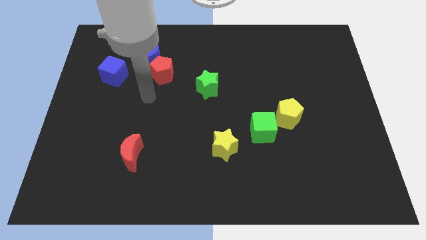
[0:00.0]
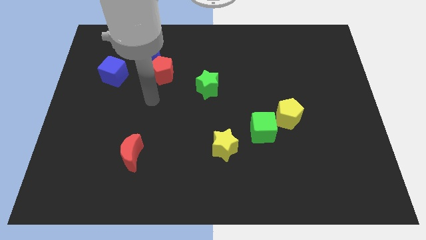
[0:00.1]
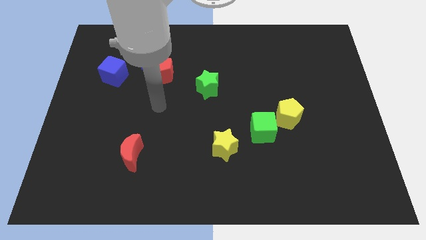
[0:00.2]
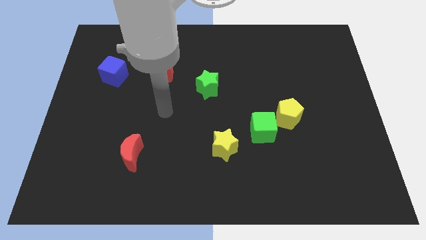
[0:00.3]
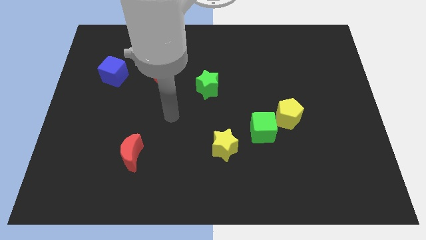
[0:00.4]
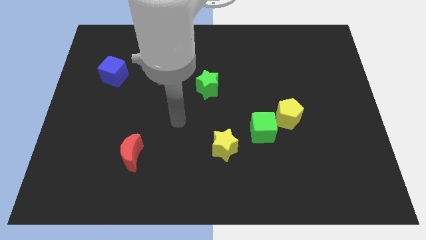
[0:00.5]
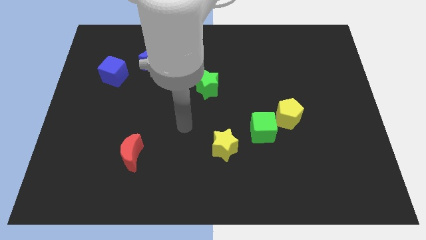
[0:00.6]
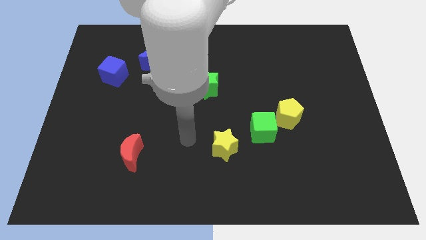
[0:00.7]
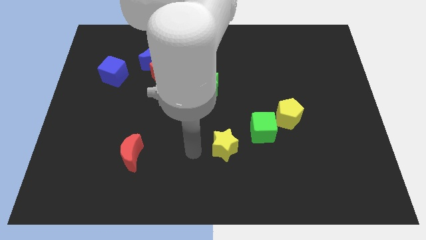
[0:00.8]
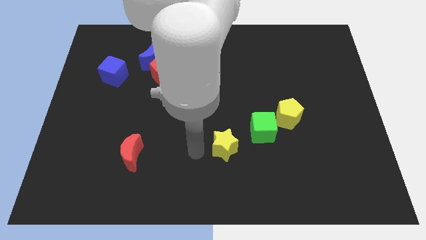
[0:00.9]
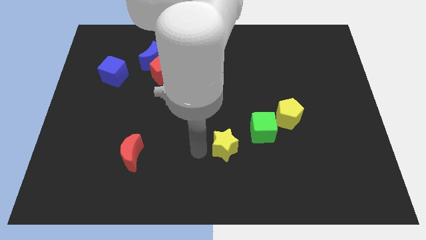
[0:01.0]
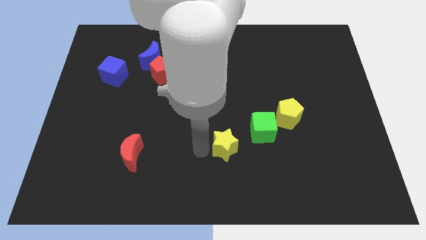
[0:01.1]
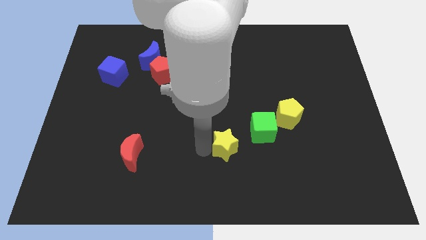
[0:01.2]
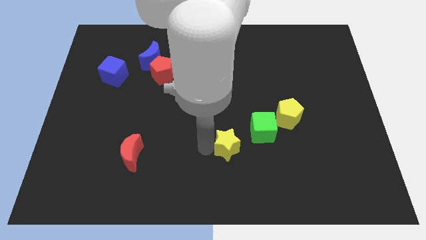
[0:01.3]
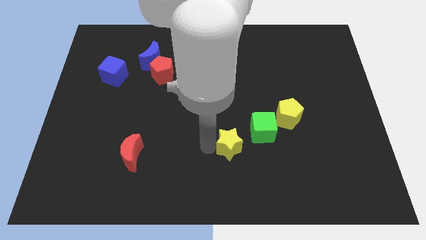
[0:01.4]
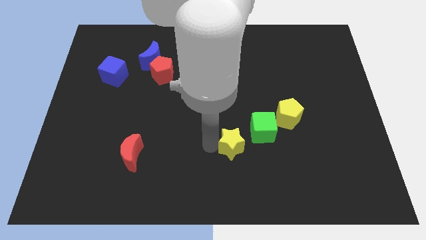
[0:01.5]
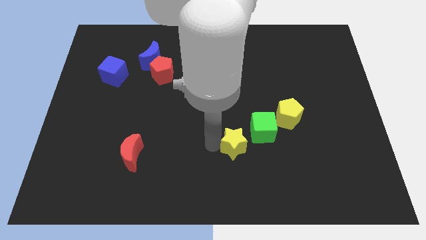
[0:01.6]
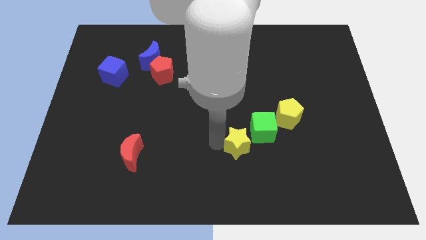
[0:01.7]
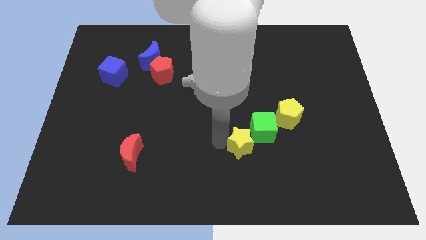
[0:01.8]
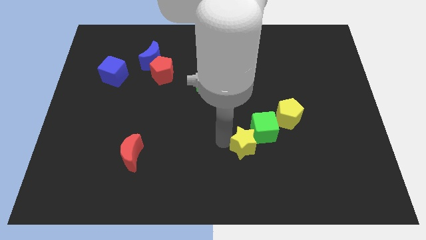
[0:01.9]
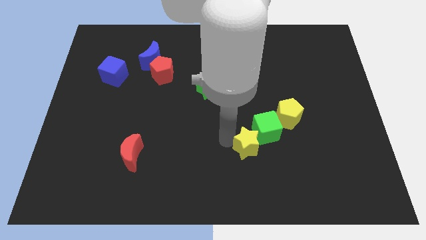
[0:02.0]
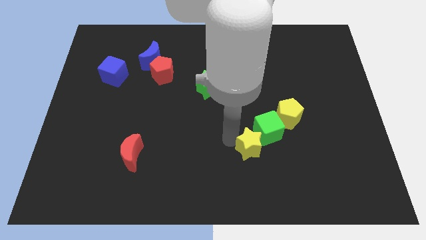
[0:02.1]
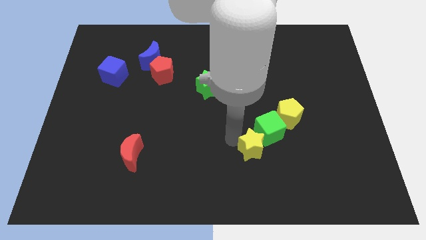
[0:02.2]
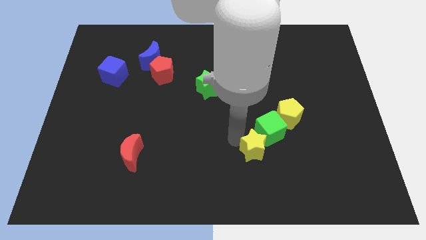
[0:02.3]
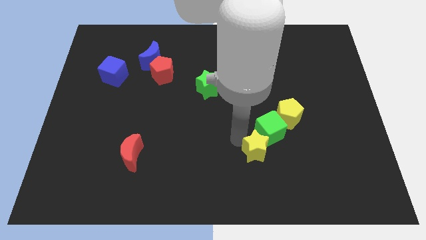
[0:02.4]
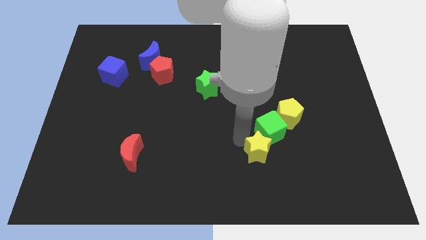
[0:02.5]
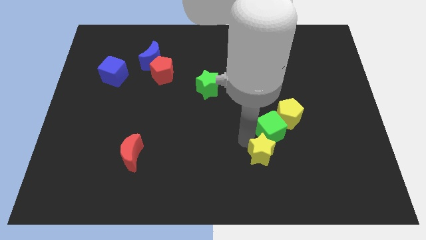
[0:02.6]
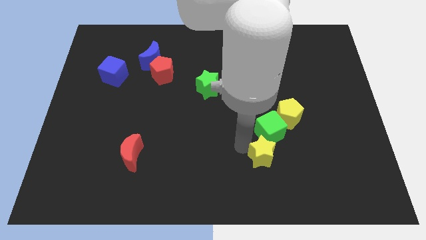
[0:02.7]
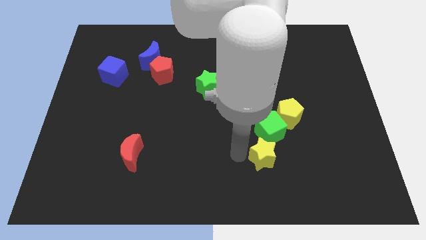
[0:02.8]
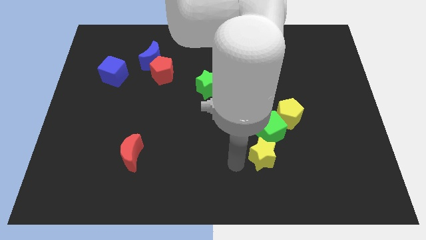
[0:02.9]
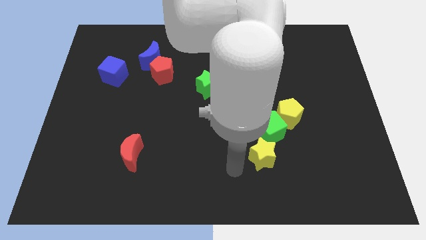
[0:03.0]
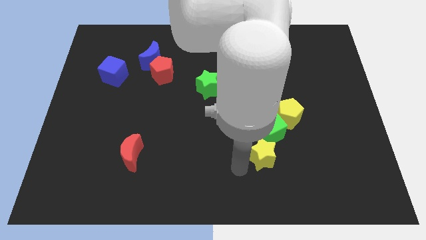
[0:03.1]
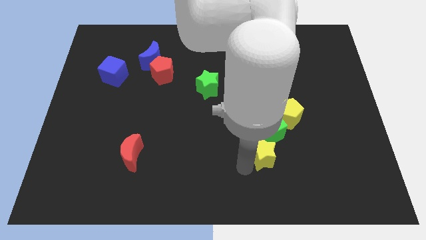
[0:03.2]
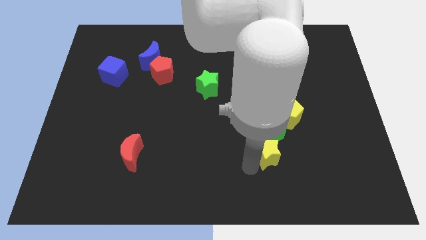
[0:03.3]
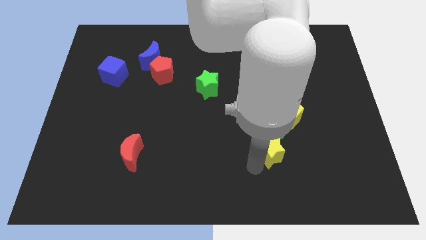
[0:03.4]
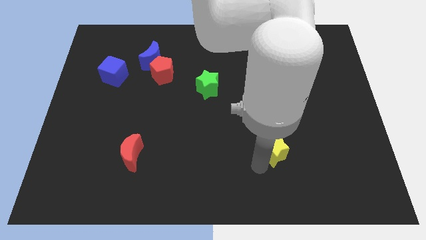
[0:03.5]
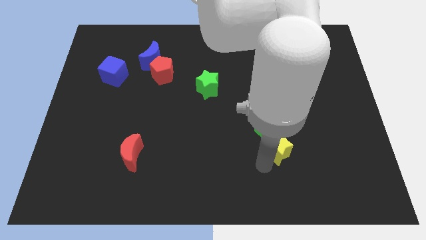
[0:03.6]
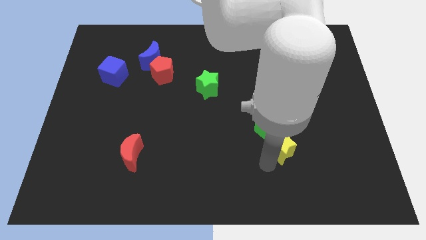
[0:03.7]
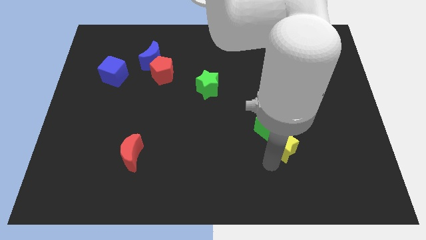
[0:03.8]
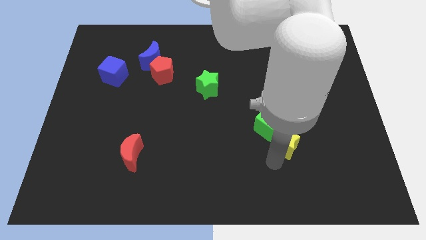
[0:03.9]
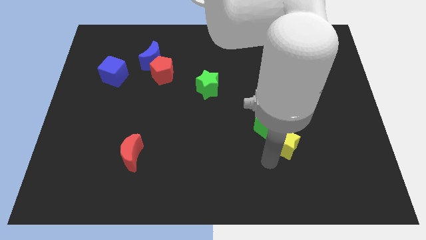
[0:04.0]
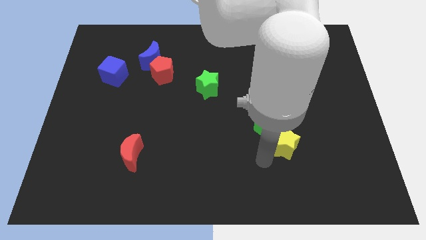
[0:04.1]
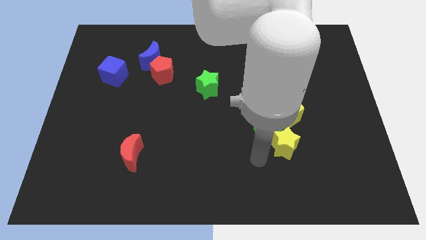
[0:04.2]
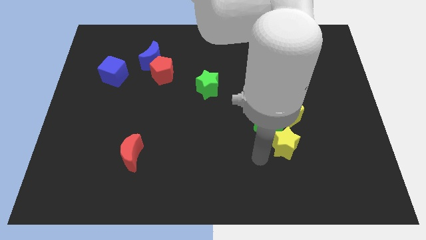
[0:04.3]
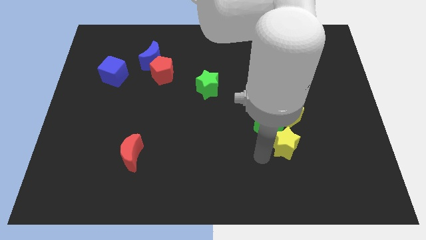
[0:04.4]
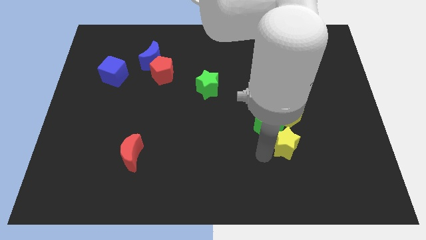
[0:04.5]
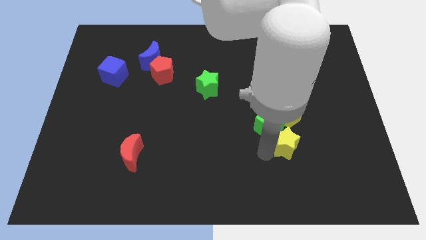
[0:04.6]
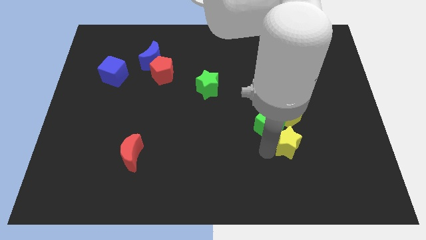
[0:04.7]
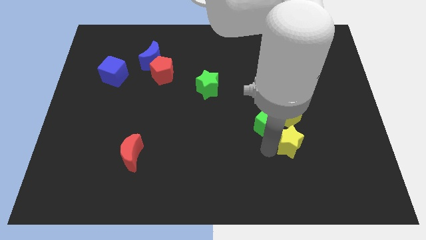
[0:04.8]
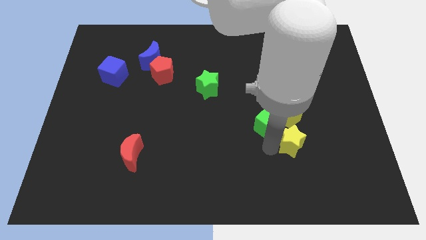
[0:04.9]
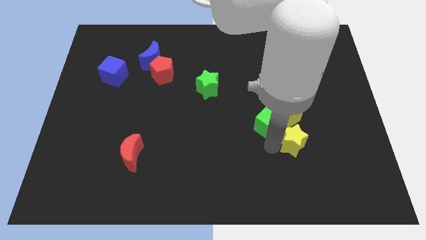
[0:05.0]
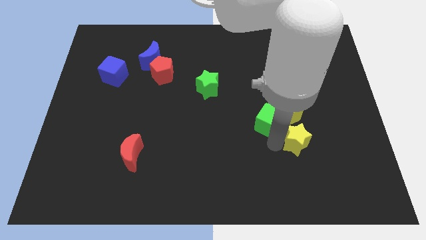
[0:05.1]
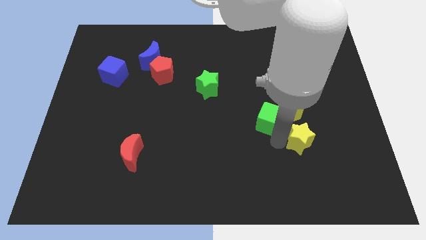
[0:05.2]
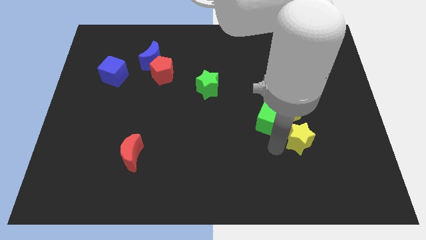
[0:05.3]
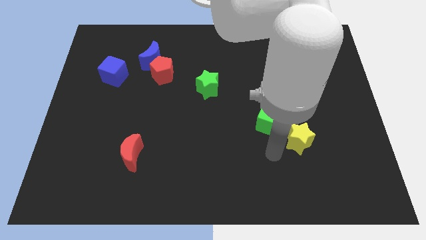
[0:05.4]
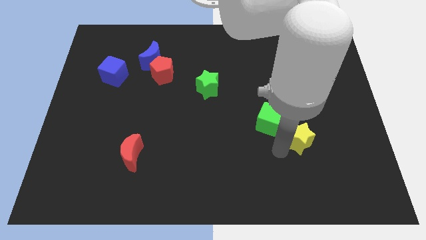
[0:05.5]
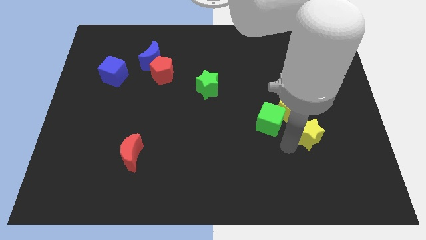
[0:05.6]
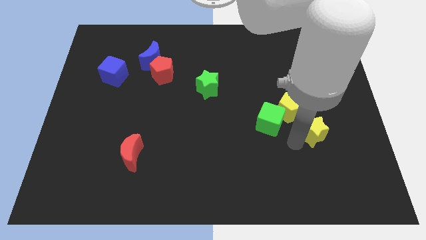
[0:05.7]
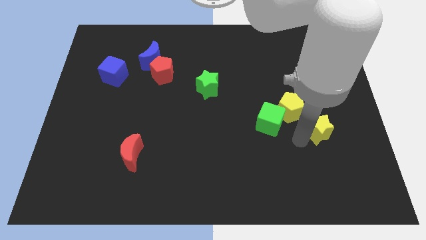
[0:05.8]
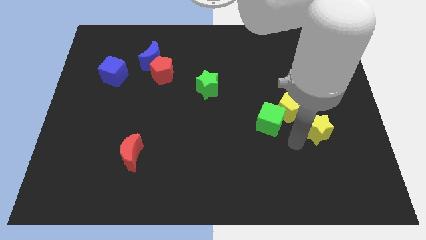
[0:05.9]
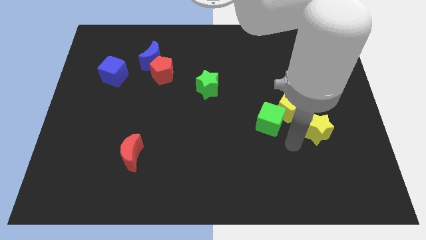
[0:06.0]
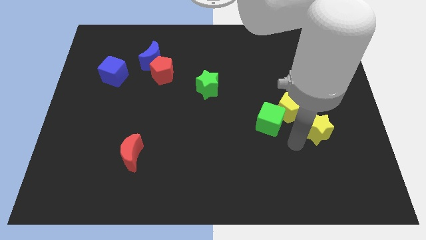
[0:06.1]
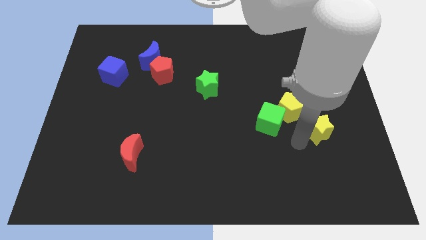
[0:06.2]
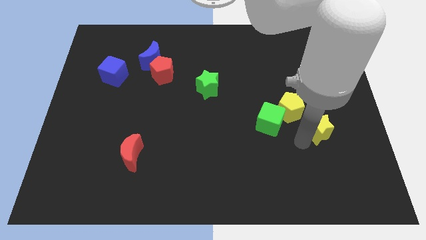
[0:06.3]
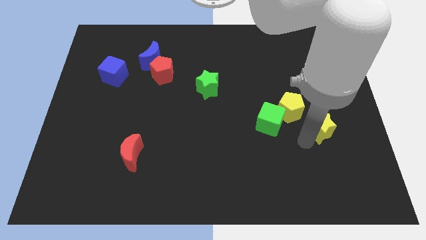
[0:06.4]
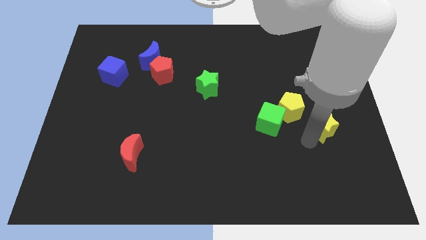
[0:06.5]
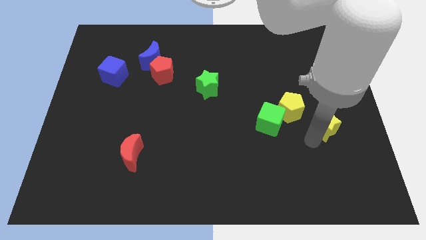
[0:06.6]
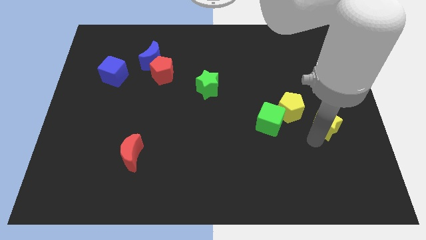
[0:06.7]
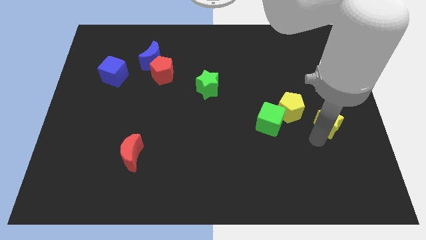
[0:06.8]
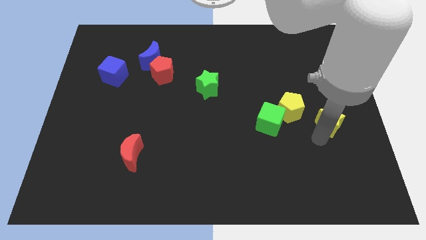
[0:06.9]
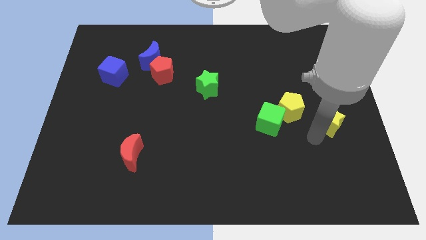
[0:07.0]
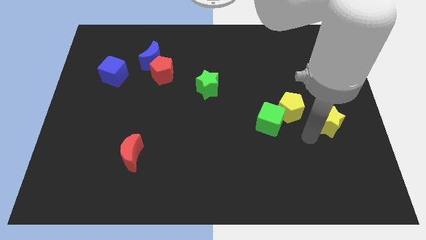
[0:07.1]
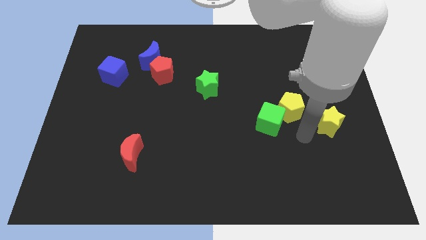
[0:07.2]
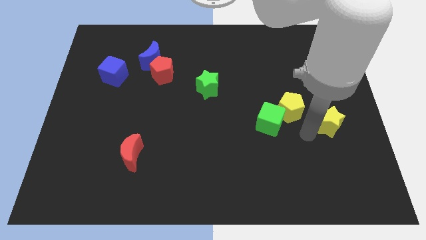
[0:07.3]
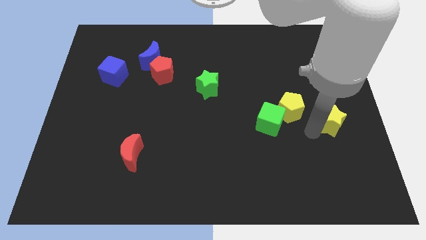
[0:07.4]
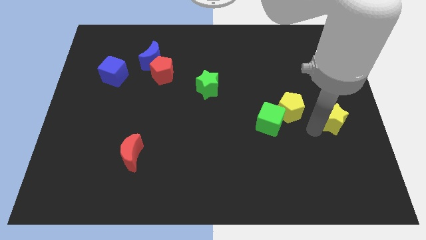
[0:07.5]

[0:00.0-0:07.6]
move the yellow star to the right side of the board
